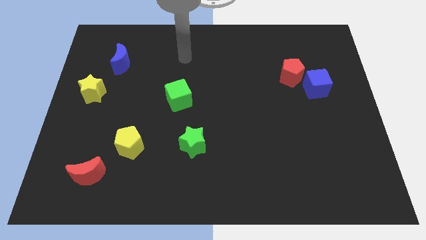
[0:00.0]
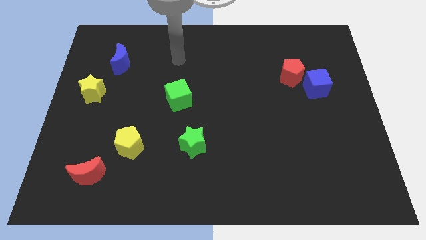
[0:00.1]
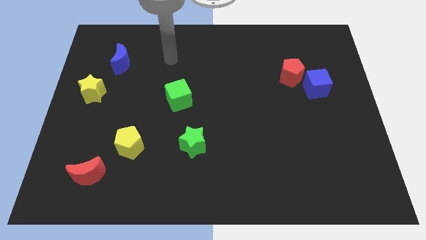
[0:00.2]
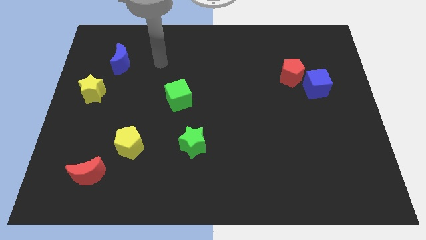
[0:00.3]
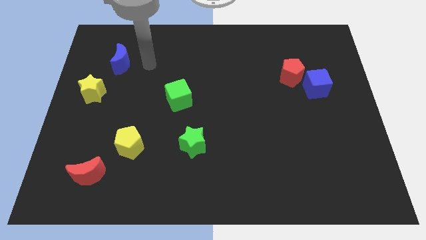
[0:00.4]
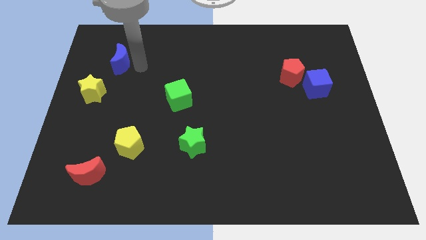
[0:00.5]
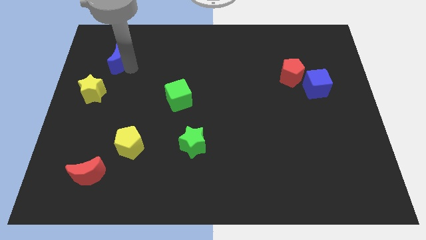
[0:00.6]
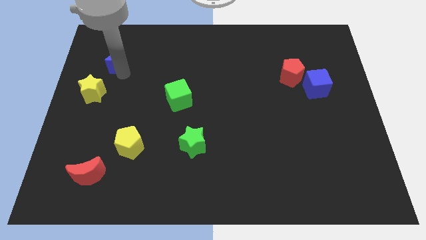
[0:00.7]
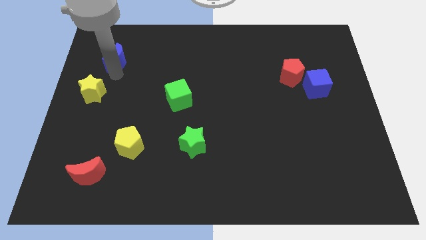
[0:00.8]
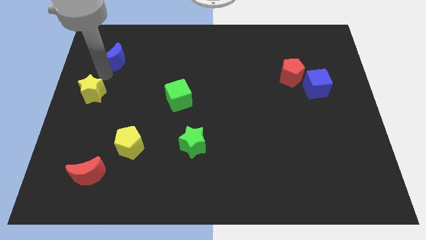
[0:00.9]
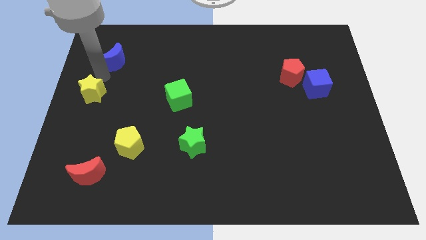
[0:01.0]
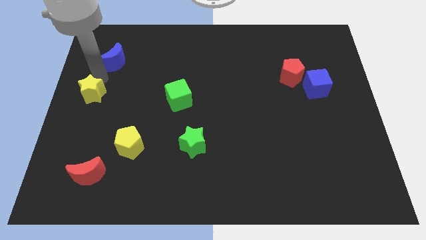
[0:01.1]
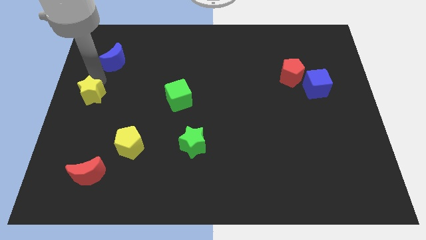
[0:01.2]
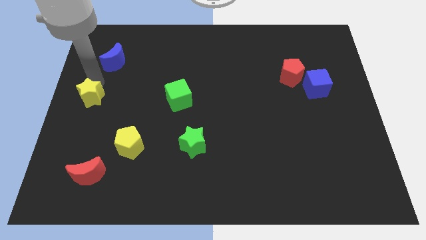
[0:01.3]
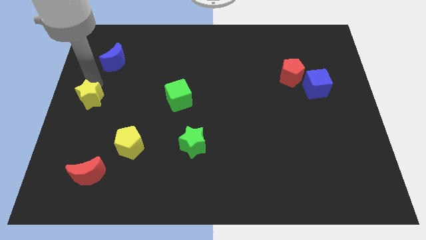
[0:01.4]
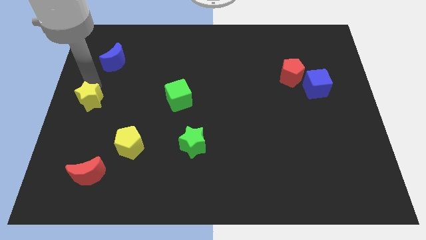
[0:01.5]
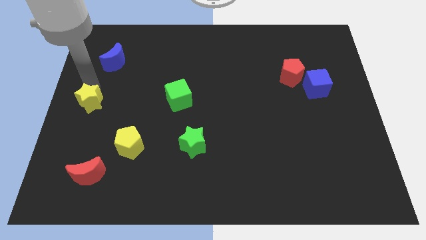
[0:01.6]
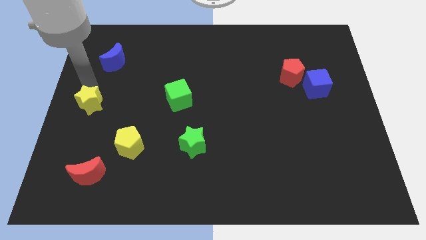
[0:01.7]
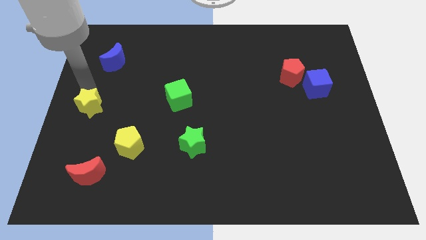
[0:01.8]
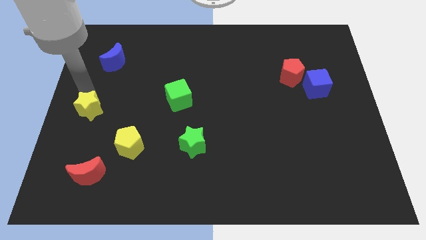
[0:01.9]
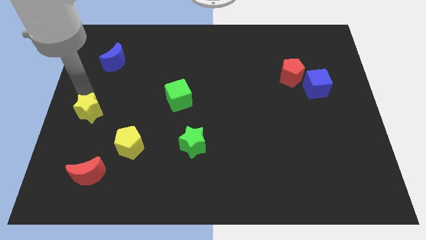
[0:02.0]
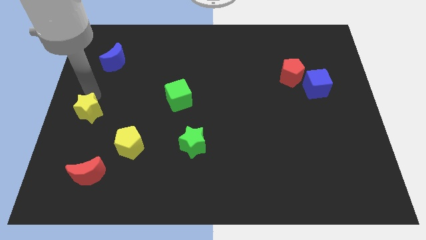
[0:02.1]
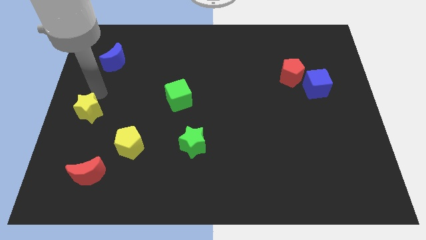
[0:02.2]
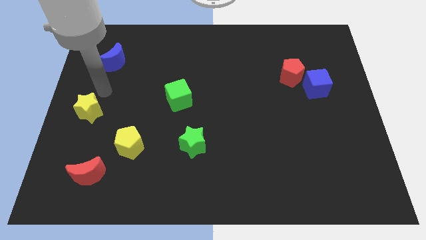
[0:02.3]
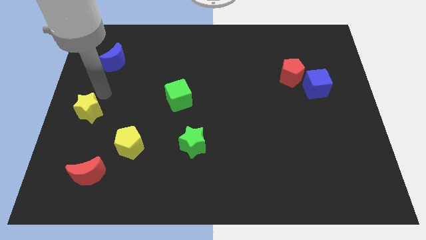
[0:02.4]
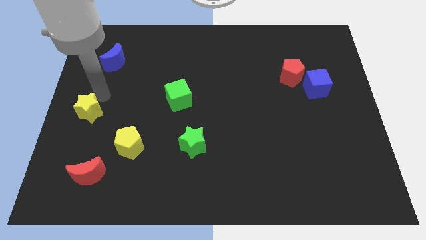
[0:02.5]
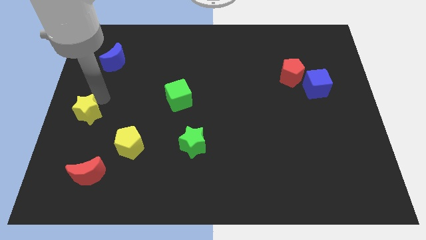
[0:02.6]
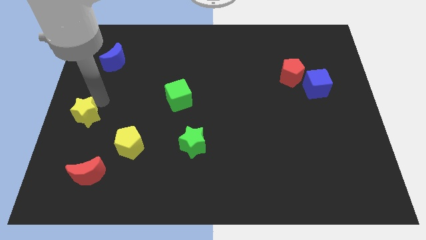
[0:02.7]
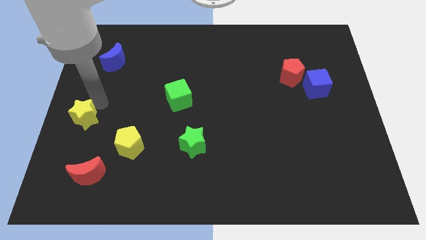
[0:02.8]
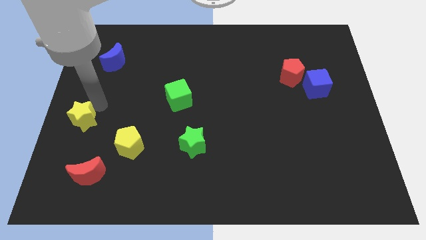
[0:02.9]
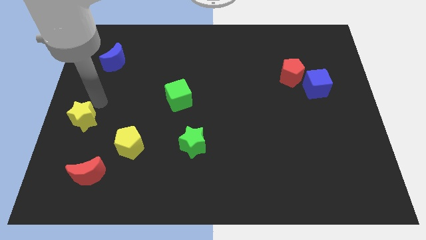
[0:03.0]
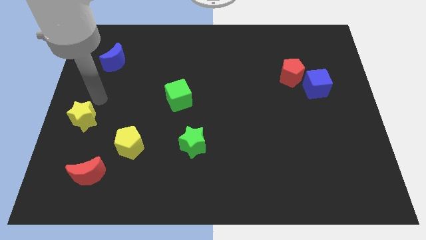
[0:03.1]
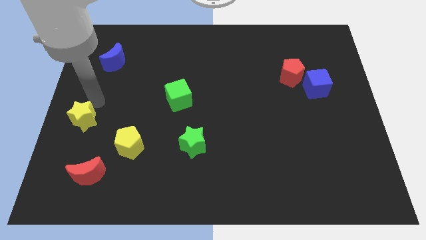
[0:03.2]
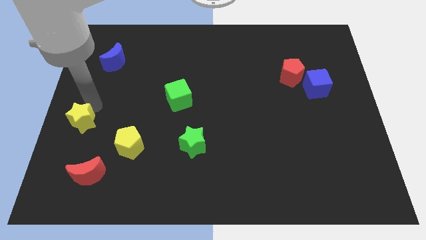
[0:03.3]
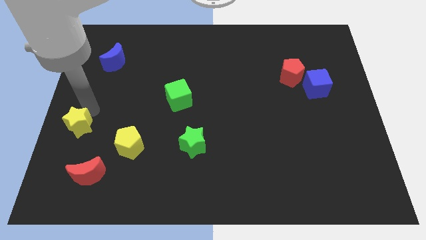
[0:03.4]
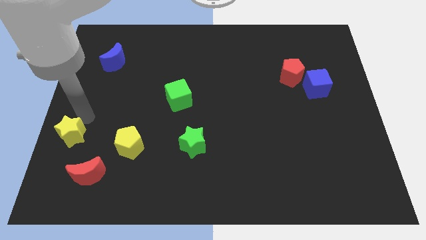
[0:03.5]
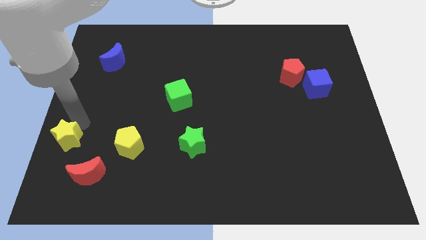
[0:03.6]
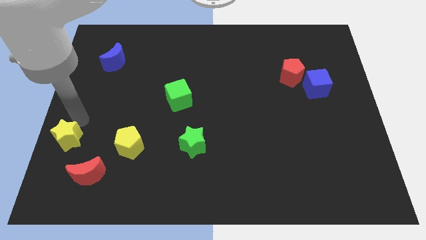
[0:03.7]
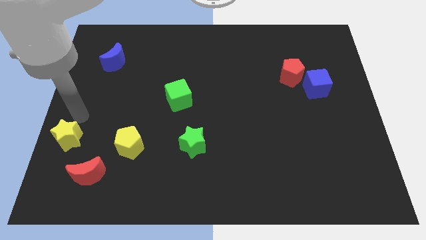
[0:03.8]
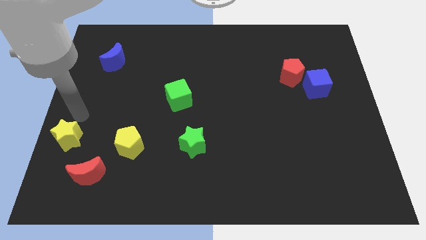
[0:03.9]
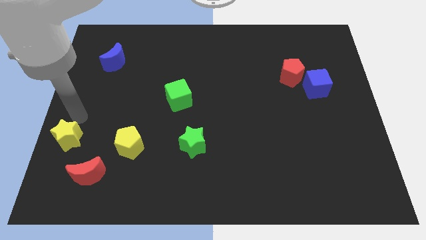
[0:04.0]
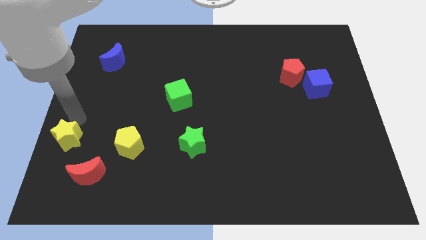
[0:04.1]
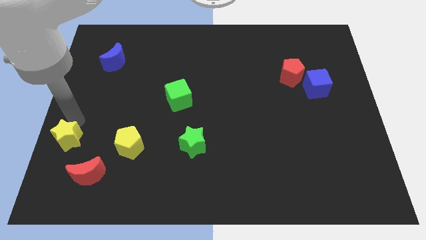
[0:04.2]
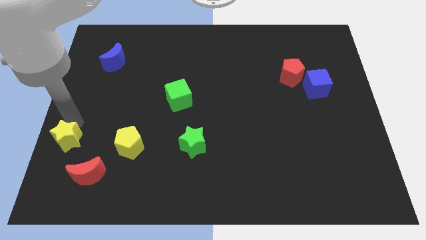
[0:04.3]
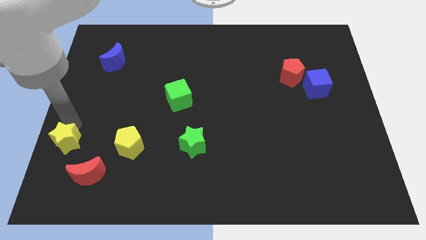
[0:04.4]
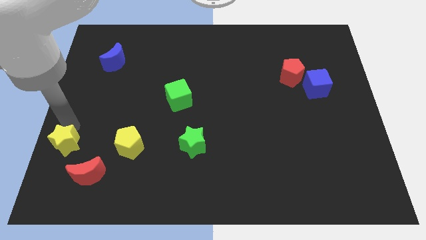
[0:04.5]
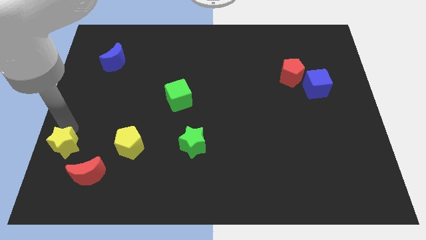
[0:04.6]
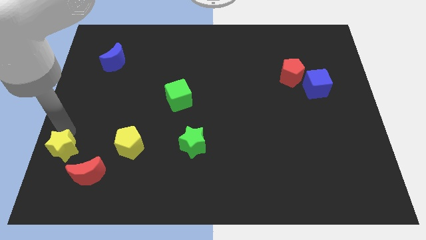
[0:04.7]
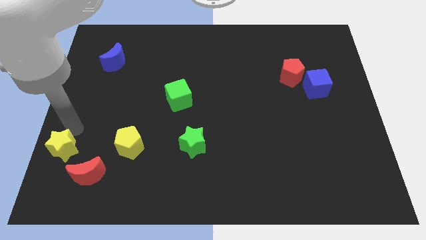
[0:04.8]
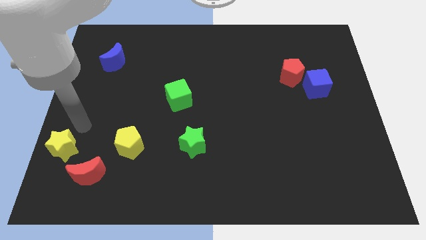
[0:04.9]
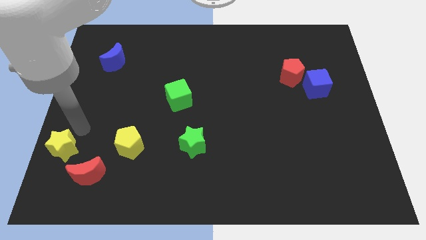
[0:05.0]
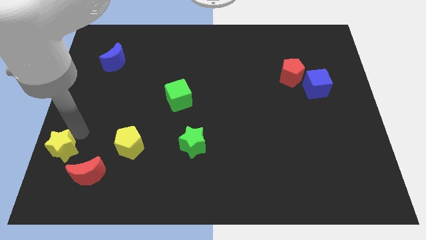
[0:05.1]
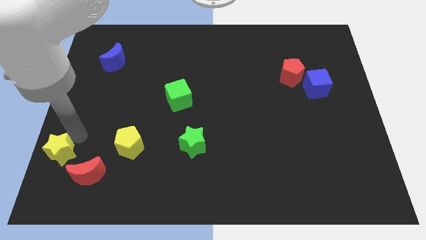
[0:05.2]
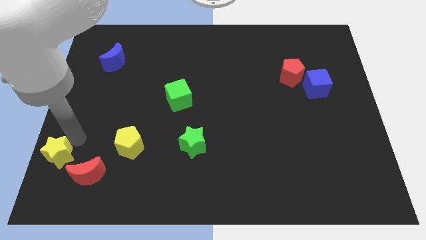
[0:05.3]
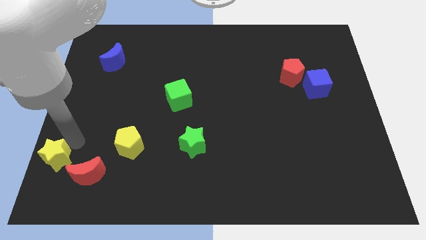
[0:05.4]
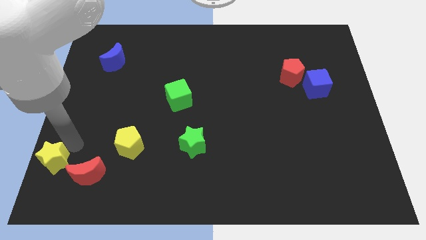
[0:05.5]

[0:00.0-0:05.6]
push the yellow star to the bottom left of the board

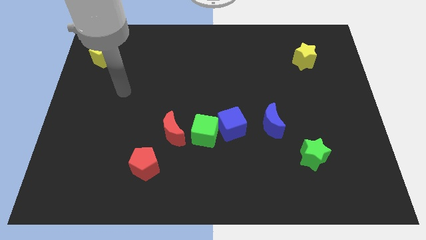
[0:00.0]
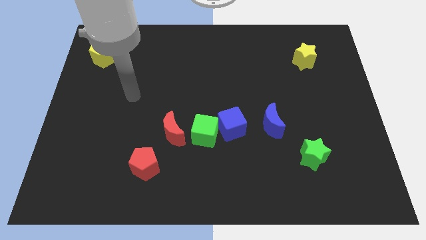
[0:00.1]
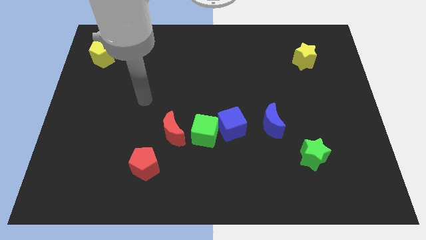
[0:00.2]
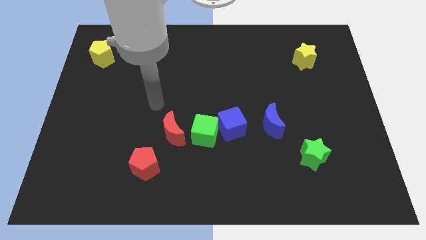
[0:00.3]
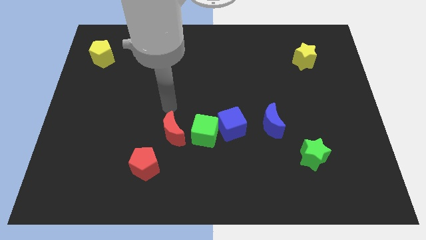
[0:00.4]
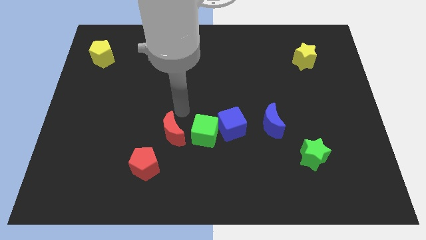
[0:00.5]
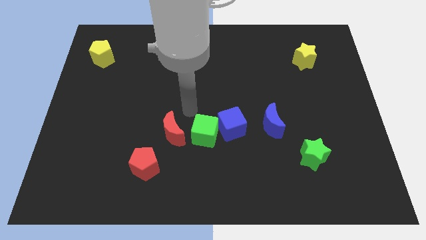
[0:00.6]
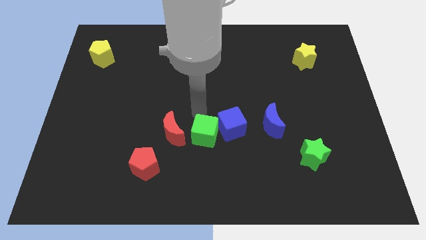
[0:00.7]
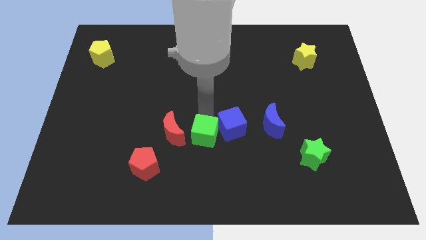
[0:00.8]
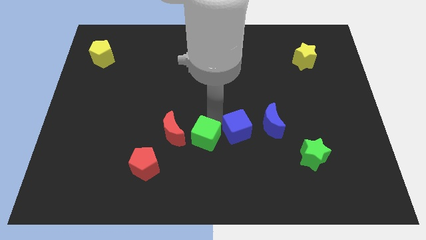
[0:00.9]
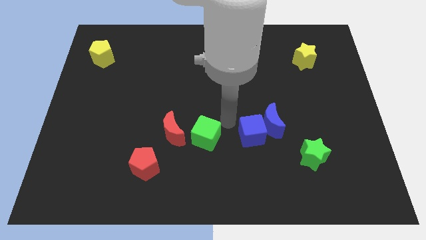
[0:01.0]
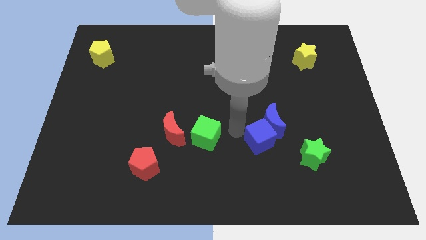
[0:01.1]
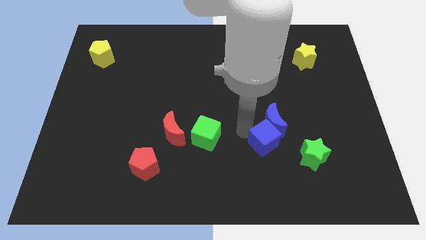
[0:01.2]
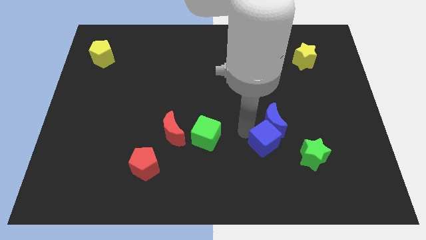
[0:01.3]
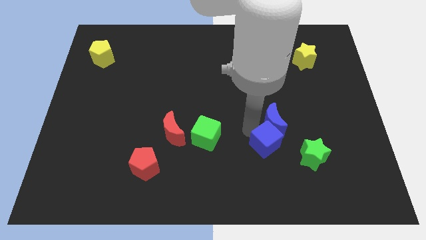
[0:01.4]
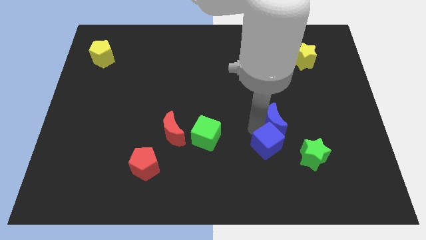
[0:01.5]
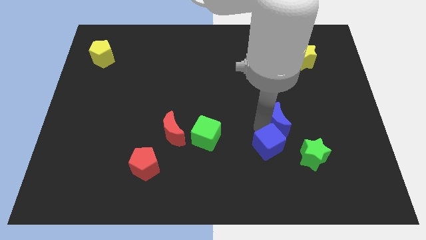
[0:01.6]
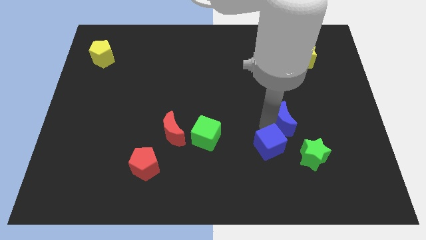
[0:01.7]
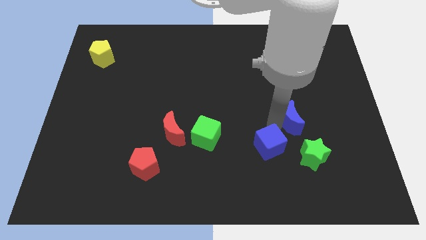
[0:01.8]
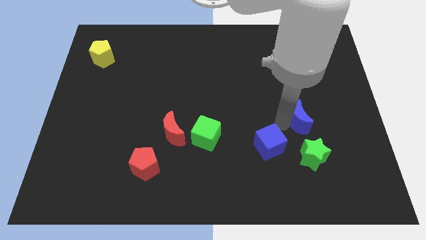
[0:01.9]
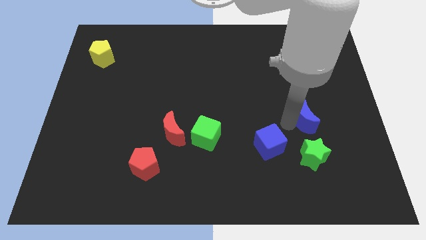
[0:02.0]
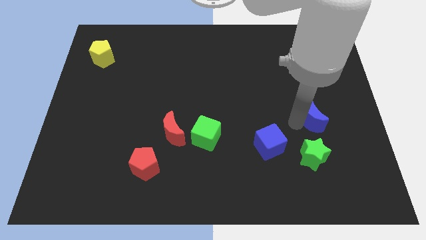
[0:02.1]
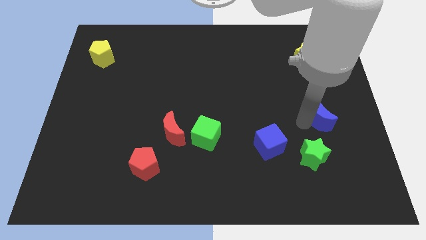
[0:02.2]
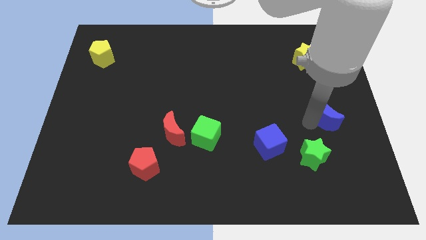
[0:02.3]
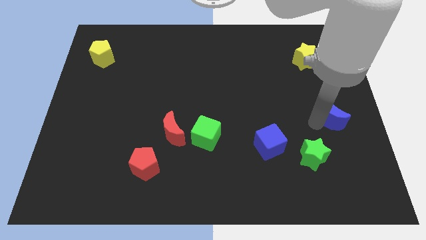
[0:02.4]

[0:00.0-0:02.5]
move the blue moon to the right side
